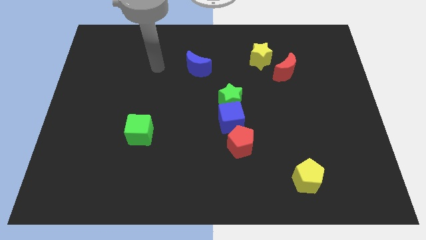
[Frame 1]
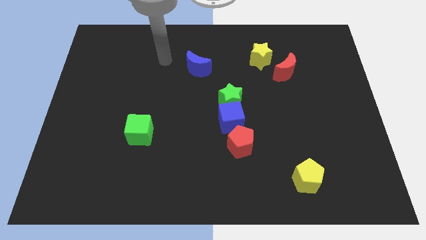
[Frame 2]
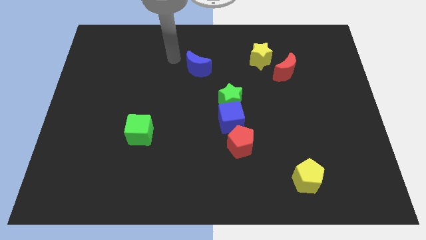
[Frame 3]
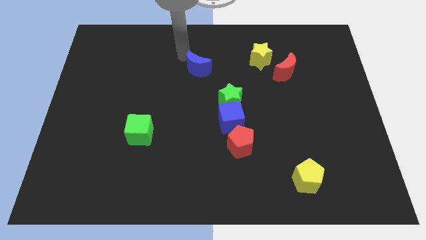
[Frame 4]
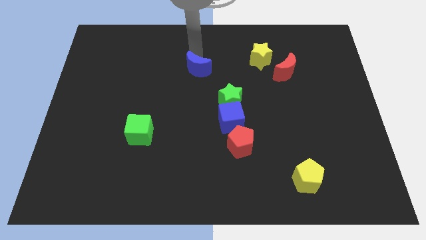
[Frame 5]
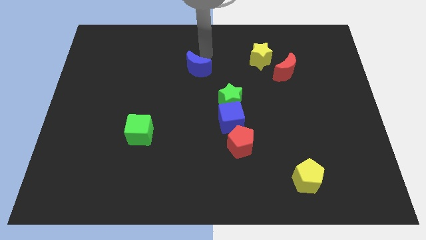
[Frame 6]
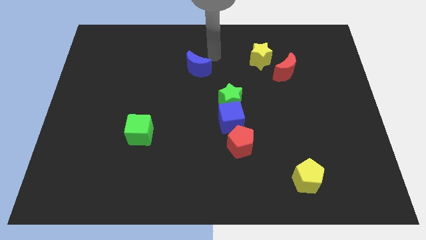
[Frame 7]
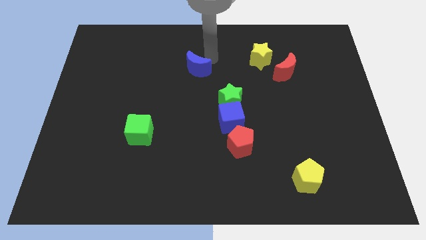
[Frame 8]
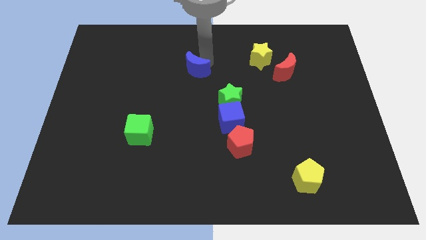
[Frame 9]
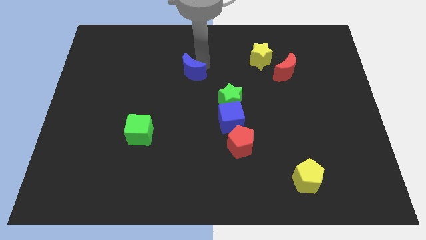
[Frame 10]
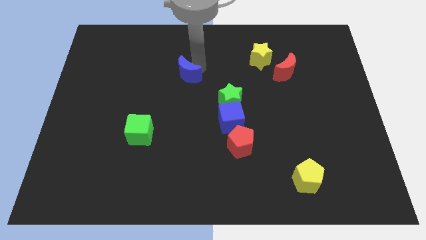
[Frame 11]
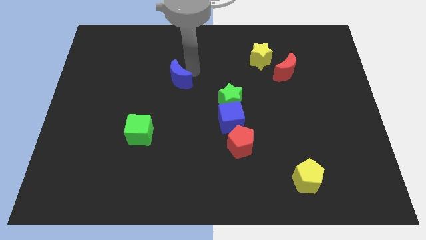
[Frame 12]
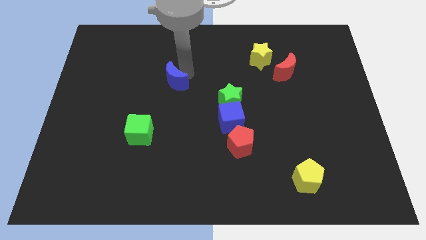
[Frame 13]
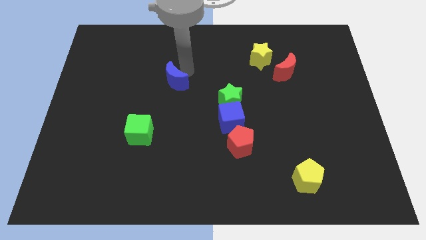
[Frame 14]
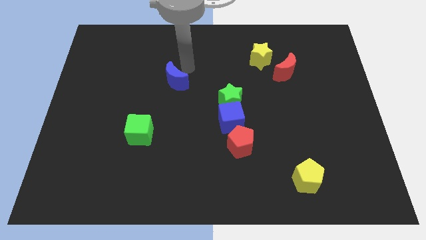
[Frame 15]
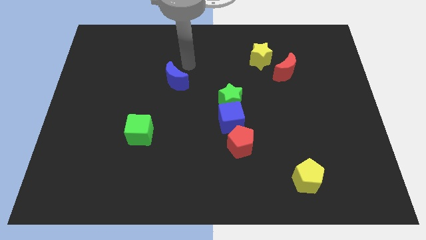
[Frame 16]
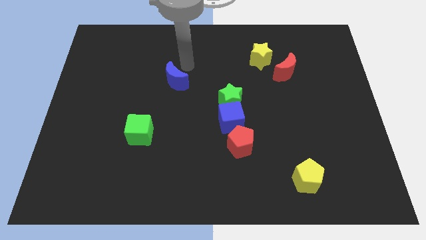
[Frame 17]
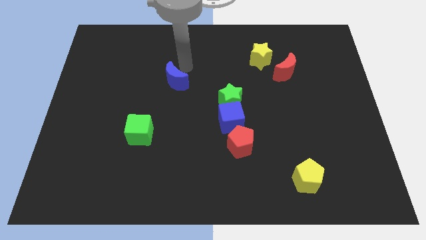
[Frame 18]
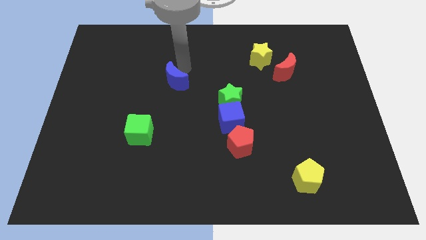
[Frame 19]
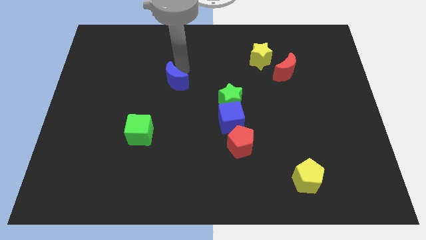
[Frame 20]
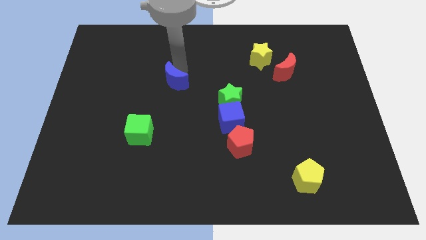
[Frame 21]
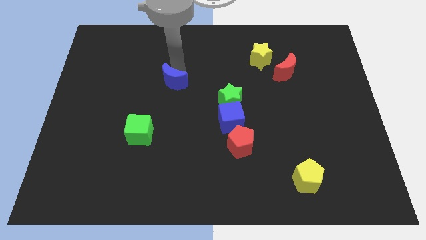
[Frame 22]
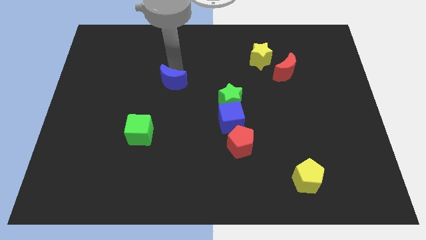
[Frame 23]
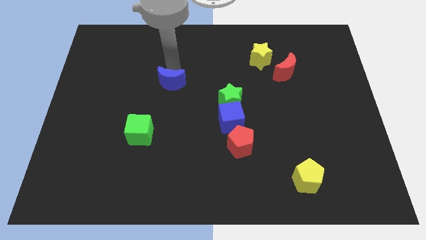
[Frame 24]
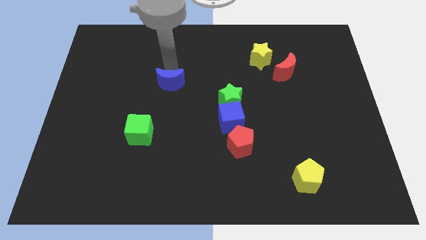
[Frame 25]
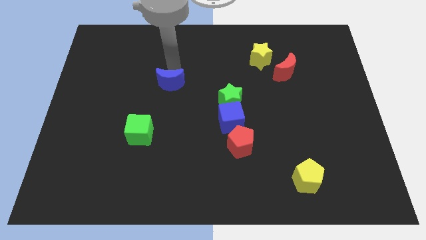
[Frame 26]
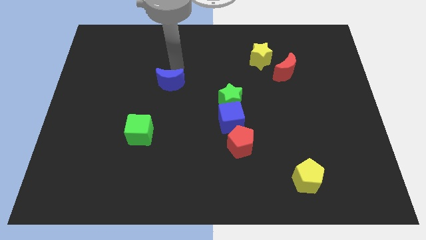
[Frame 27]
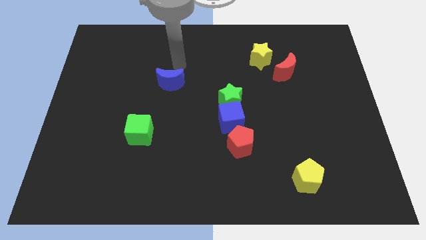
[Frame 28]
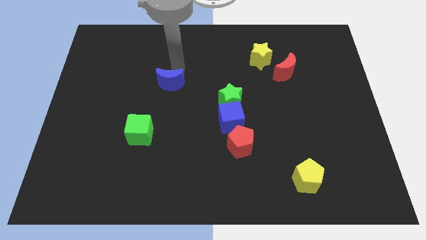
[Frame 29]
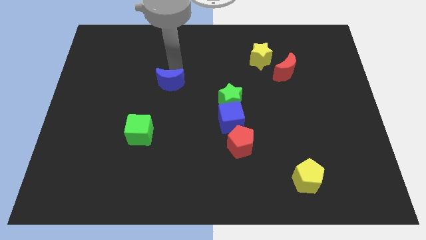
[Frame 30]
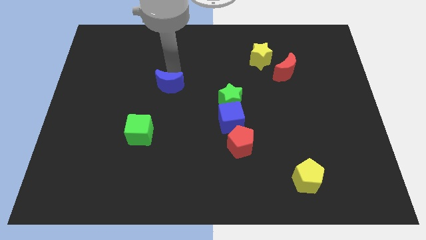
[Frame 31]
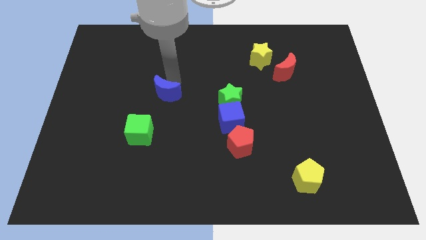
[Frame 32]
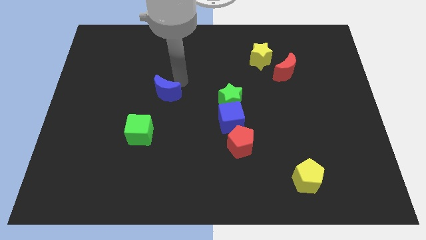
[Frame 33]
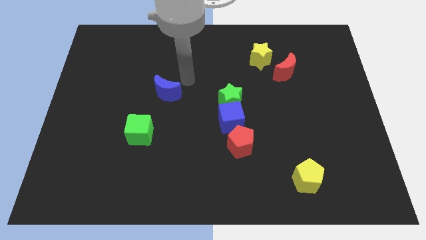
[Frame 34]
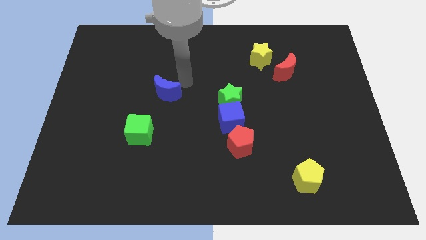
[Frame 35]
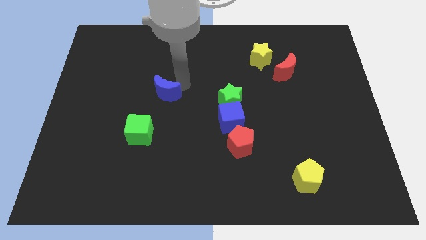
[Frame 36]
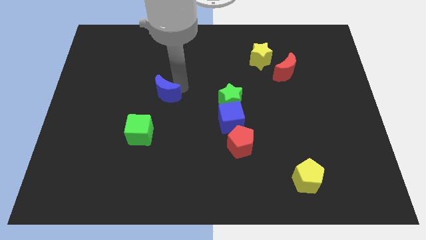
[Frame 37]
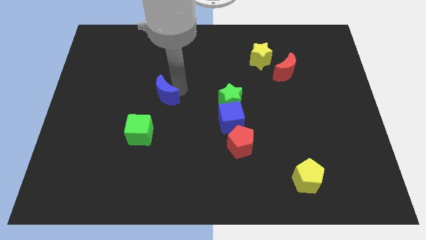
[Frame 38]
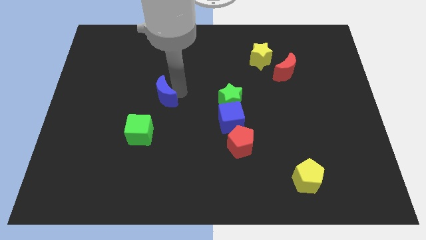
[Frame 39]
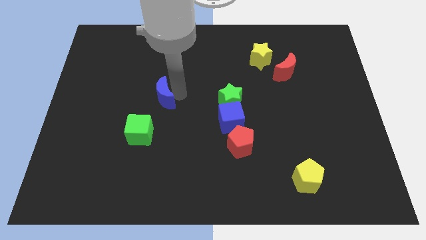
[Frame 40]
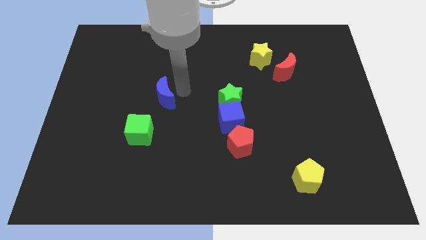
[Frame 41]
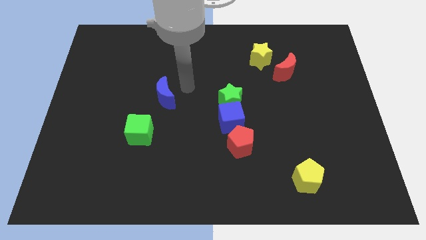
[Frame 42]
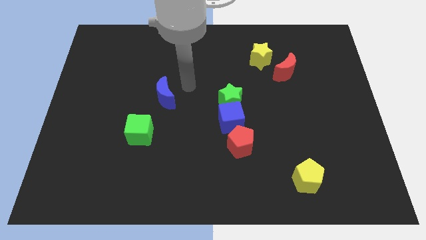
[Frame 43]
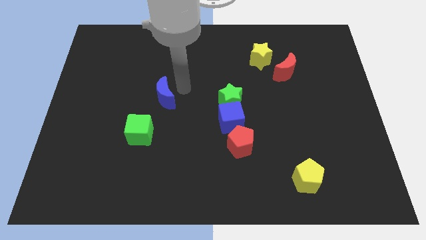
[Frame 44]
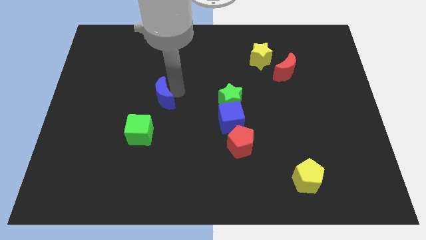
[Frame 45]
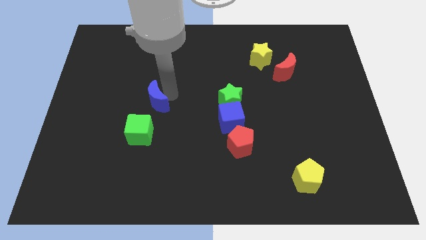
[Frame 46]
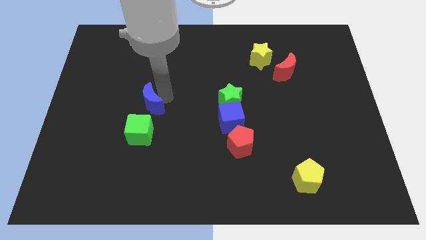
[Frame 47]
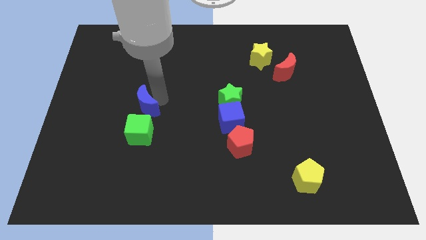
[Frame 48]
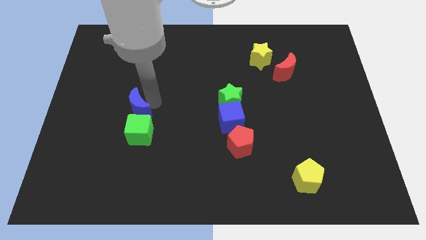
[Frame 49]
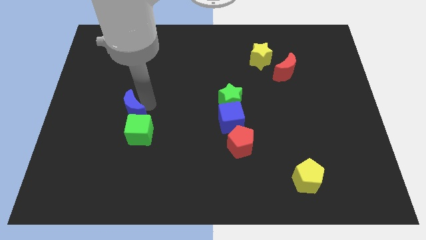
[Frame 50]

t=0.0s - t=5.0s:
push the blue moon diagonally down and to the left

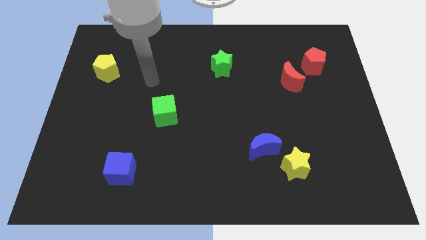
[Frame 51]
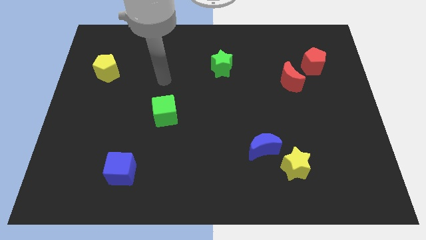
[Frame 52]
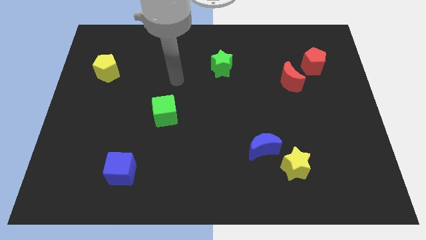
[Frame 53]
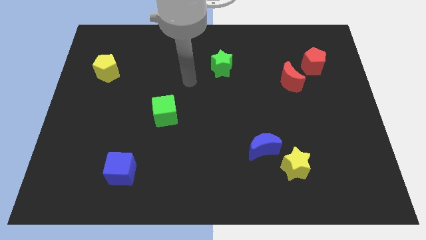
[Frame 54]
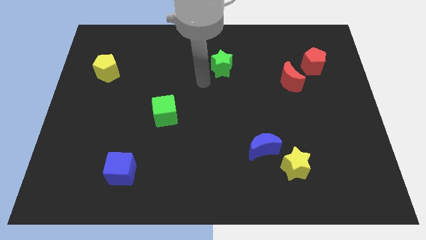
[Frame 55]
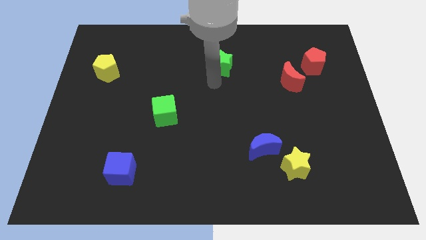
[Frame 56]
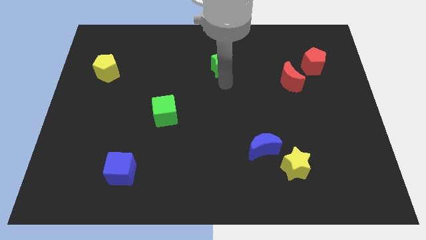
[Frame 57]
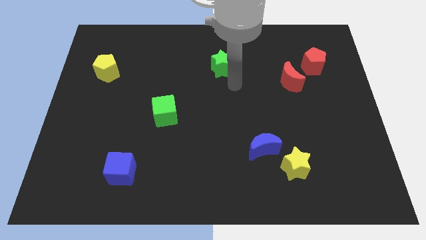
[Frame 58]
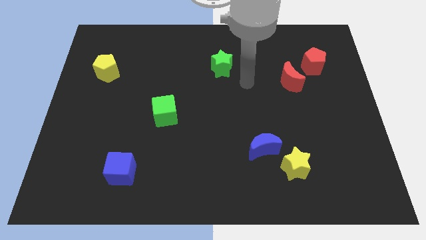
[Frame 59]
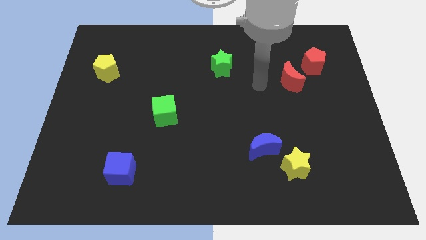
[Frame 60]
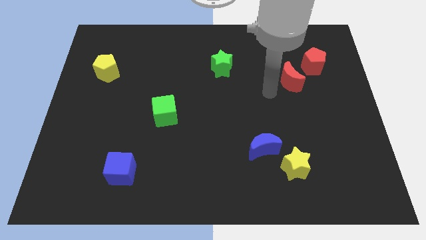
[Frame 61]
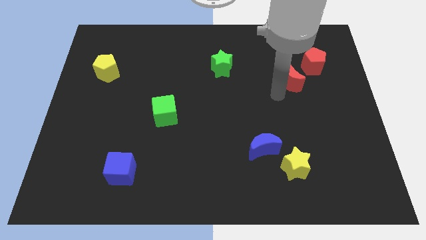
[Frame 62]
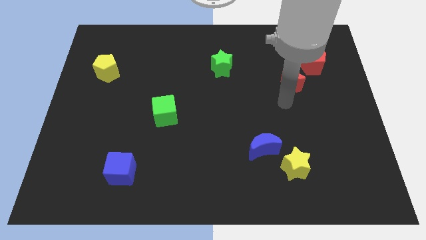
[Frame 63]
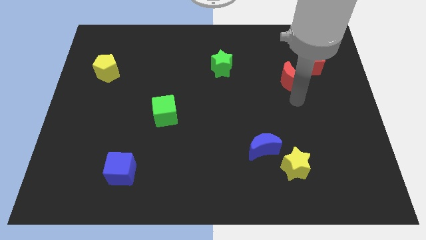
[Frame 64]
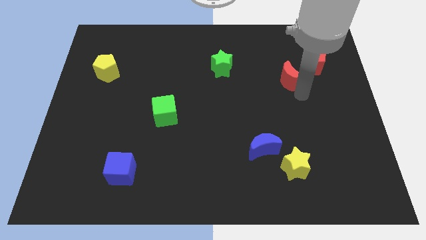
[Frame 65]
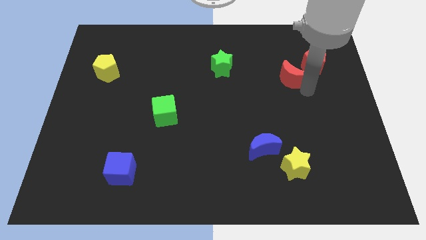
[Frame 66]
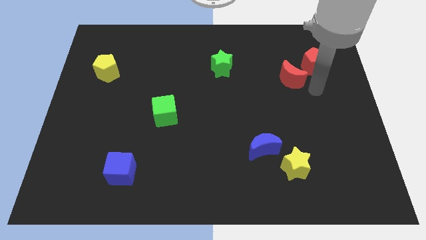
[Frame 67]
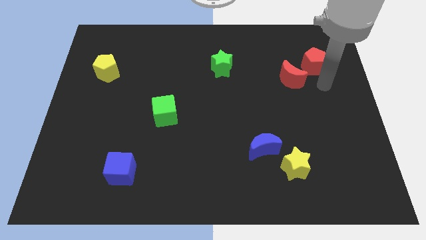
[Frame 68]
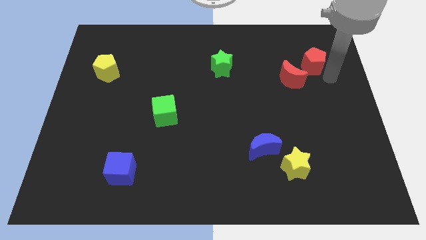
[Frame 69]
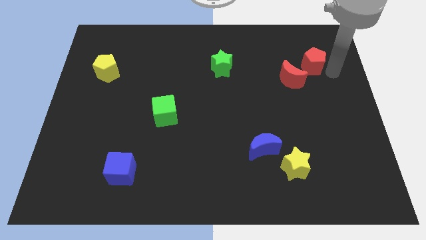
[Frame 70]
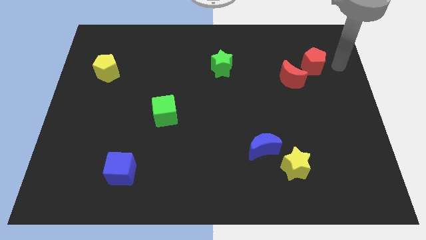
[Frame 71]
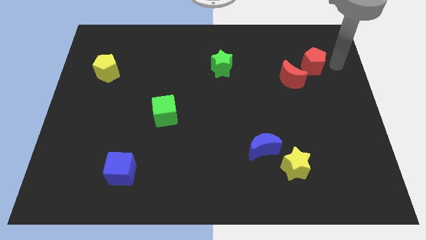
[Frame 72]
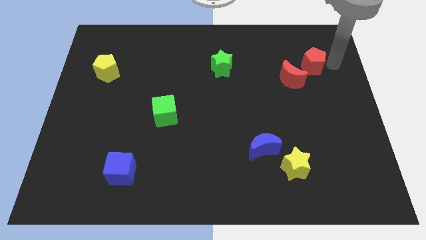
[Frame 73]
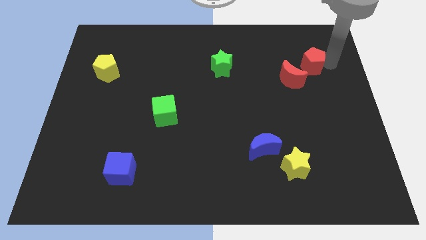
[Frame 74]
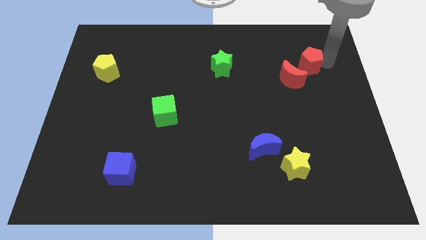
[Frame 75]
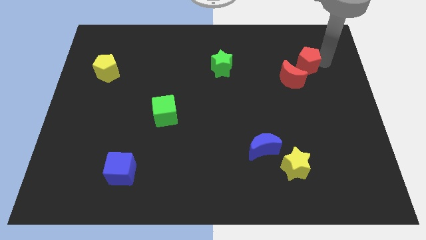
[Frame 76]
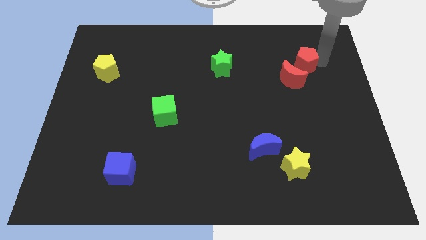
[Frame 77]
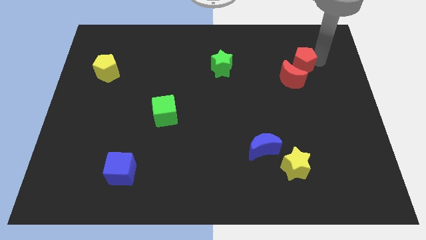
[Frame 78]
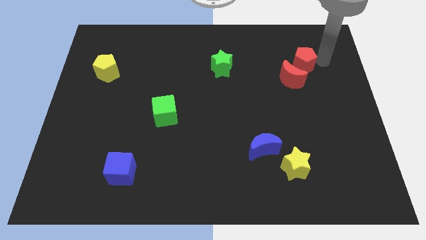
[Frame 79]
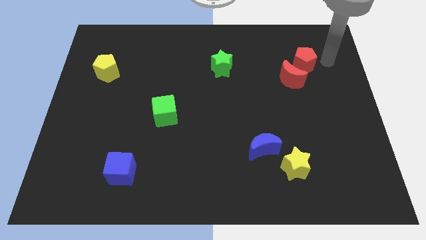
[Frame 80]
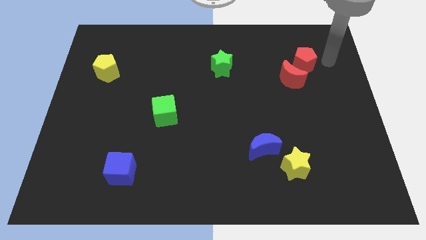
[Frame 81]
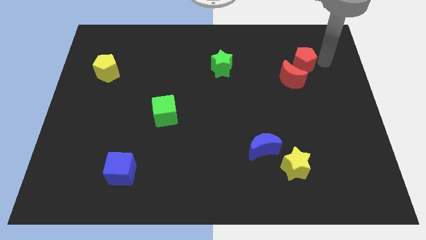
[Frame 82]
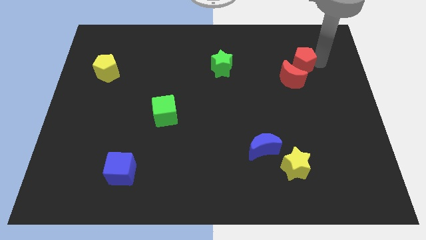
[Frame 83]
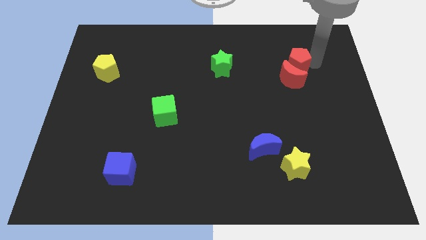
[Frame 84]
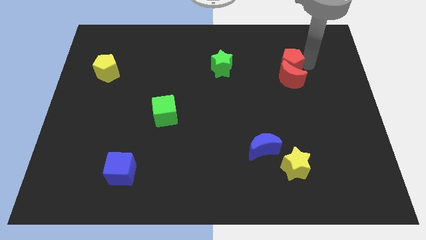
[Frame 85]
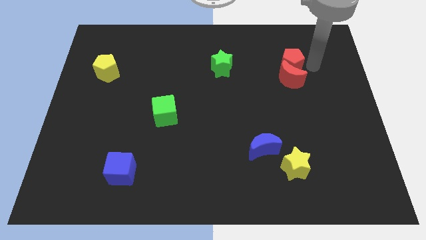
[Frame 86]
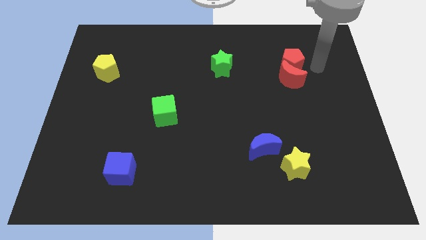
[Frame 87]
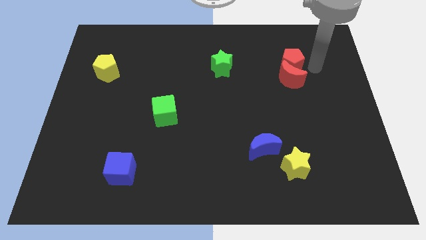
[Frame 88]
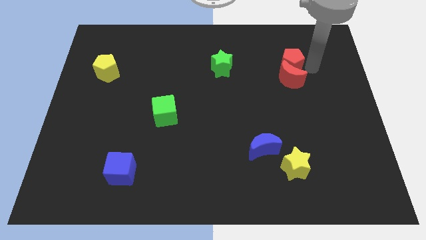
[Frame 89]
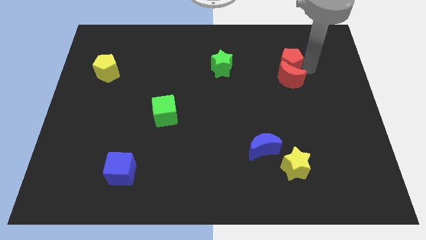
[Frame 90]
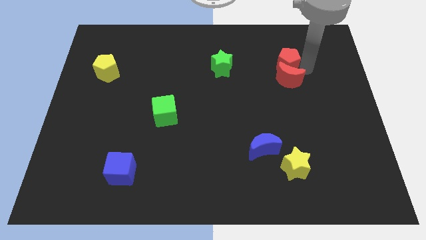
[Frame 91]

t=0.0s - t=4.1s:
move the red pentagon to the left a little
